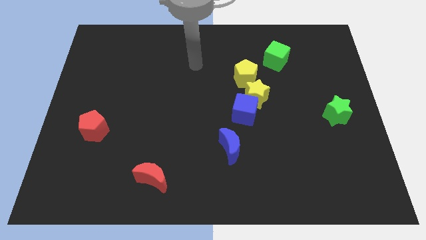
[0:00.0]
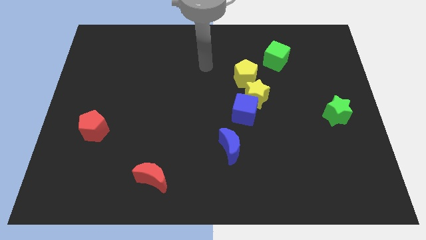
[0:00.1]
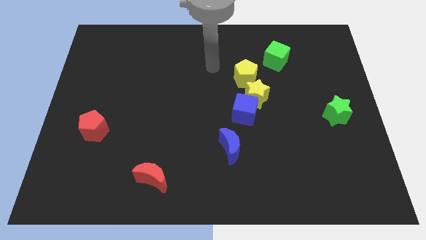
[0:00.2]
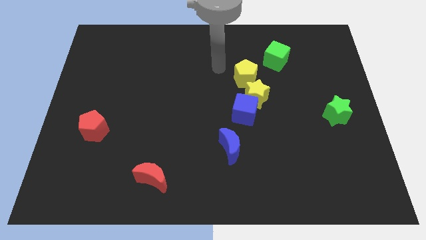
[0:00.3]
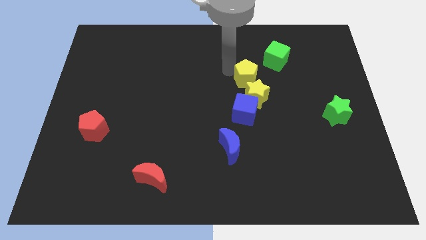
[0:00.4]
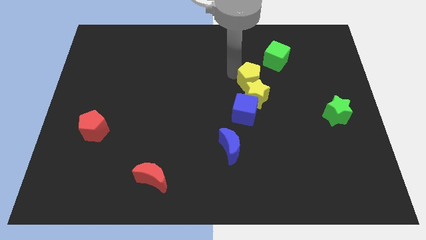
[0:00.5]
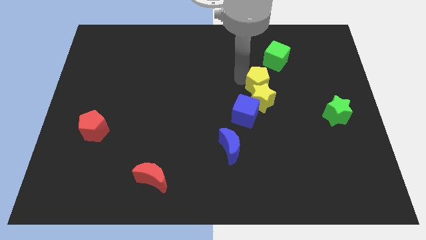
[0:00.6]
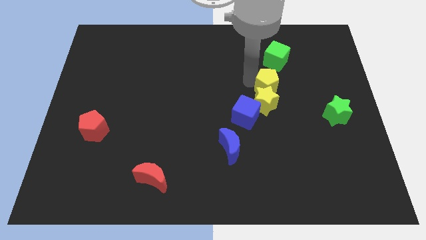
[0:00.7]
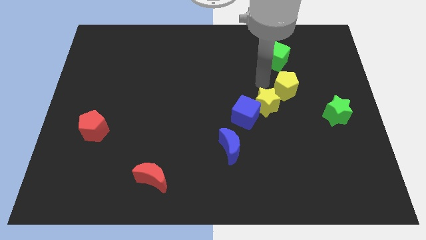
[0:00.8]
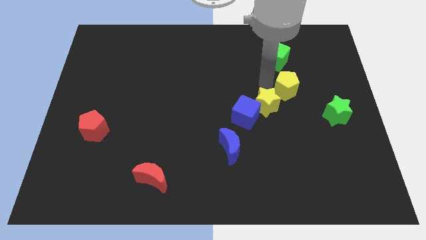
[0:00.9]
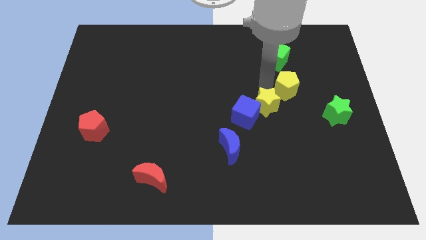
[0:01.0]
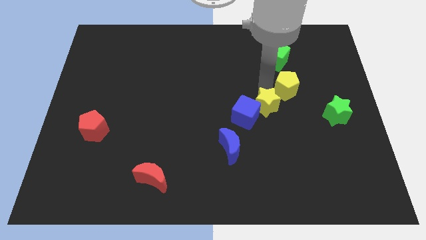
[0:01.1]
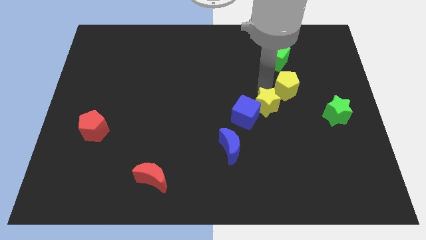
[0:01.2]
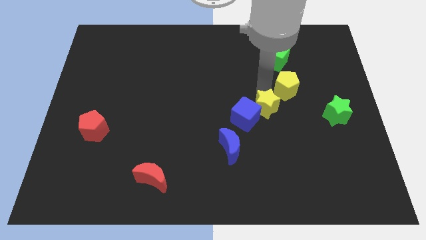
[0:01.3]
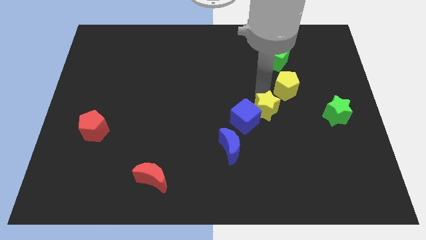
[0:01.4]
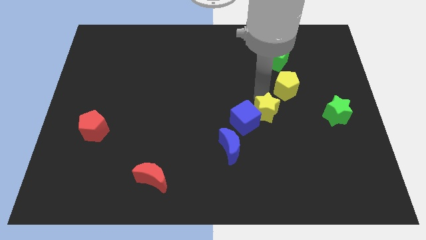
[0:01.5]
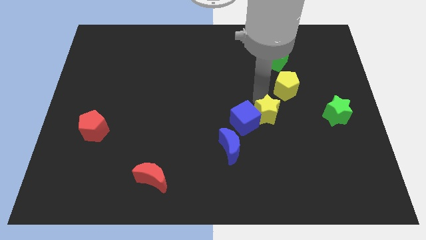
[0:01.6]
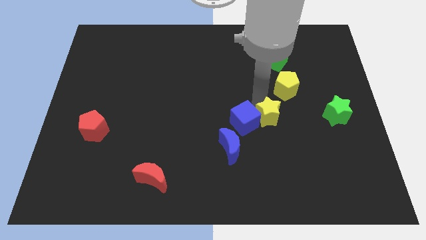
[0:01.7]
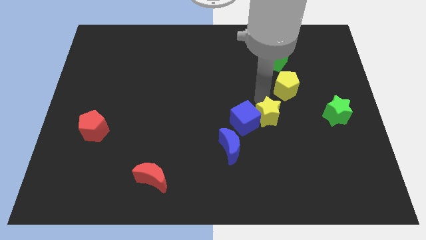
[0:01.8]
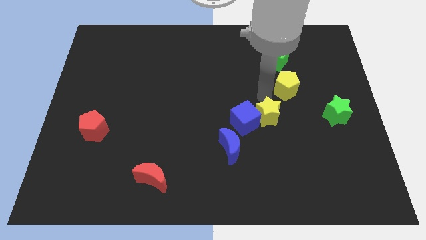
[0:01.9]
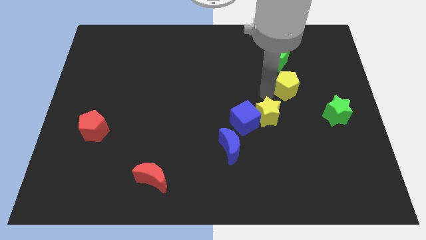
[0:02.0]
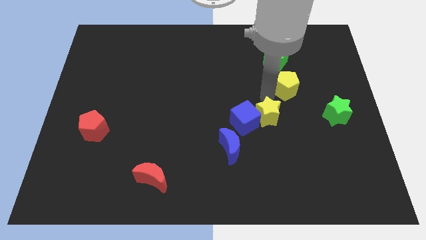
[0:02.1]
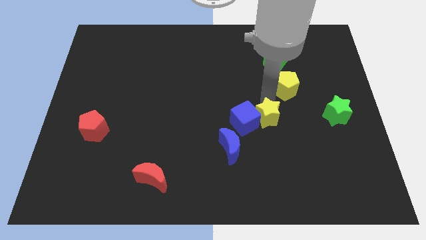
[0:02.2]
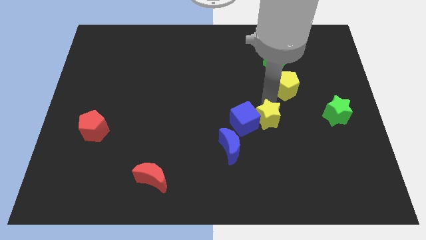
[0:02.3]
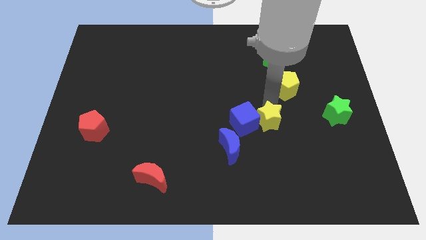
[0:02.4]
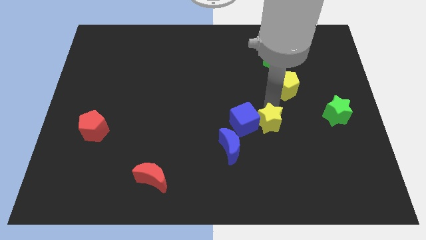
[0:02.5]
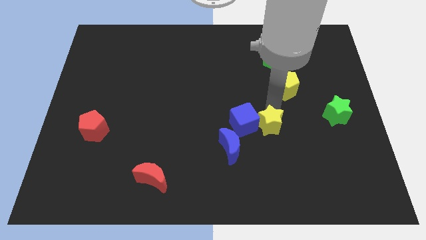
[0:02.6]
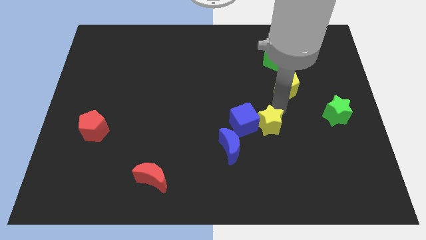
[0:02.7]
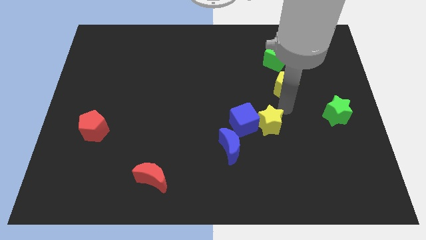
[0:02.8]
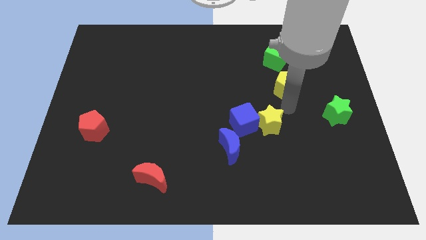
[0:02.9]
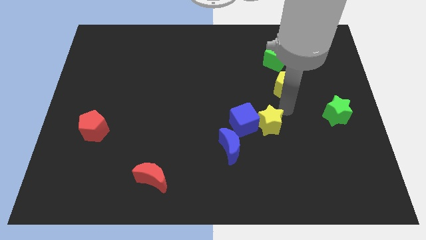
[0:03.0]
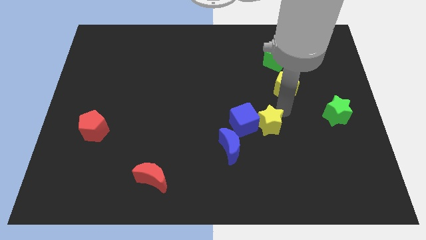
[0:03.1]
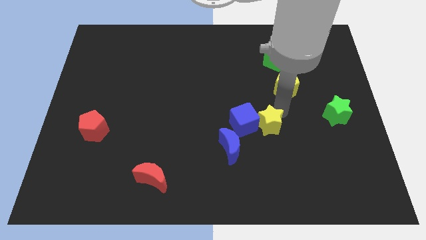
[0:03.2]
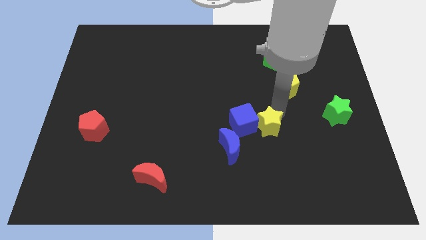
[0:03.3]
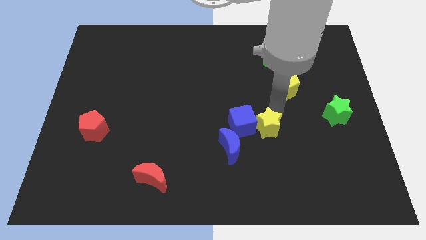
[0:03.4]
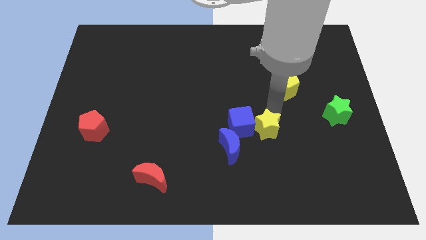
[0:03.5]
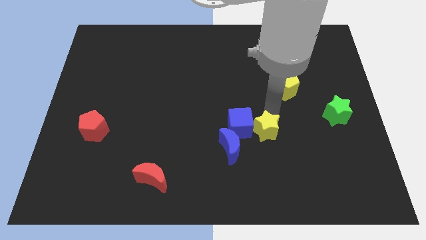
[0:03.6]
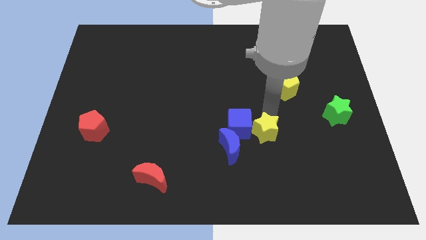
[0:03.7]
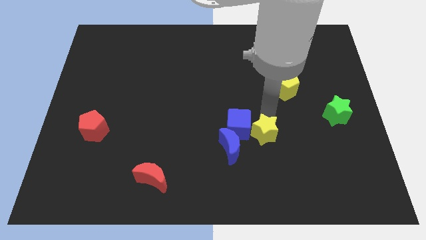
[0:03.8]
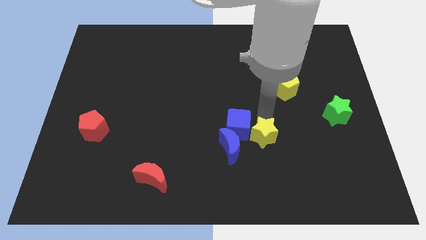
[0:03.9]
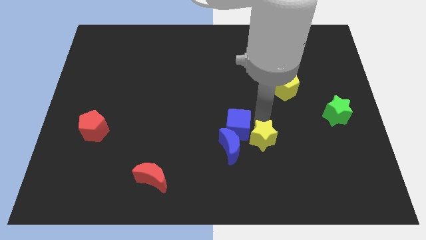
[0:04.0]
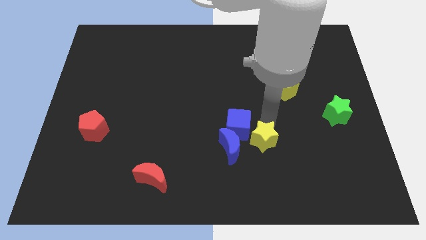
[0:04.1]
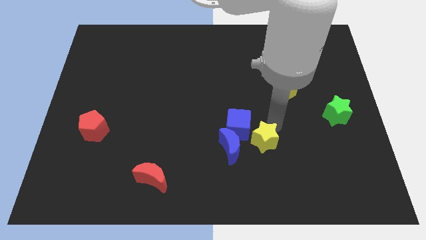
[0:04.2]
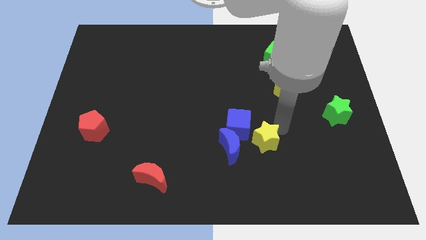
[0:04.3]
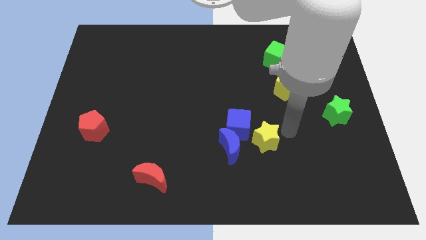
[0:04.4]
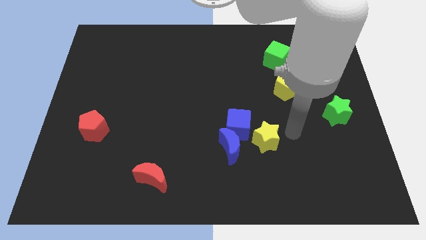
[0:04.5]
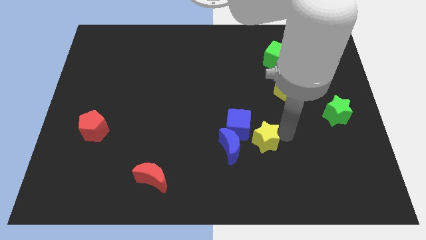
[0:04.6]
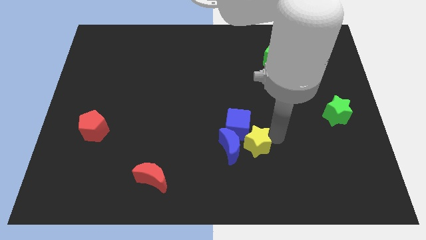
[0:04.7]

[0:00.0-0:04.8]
push the yellow star next to the blue moon

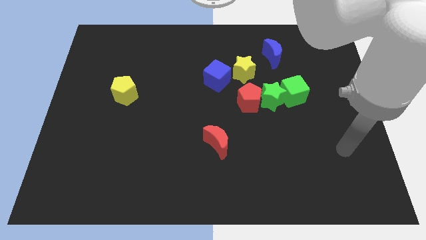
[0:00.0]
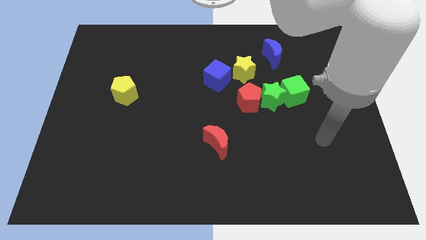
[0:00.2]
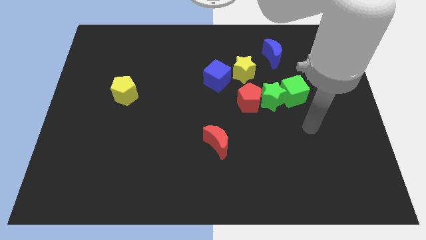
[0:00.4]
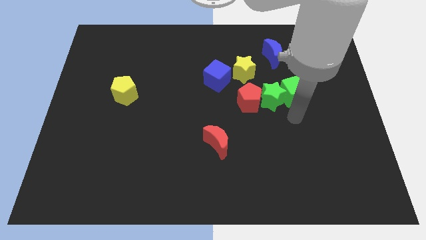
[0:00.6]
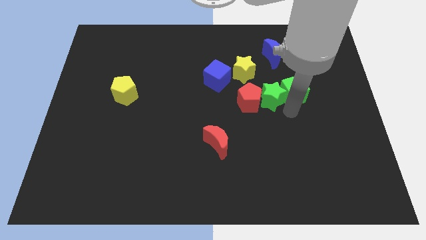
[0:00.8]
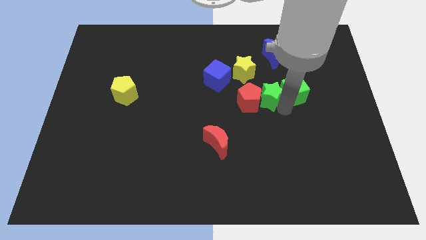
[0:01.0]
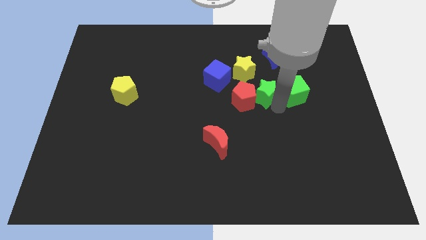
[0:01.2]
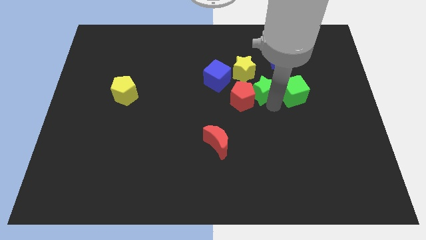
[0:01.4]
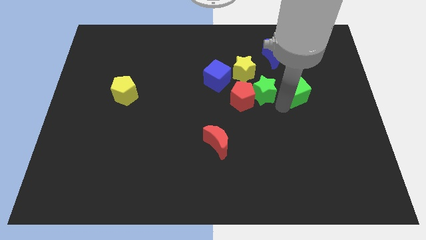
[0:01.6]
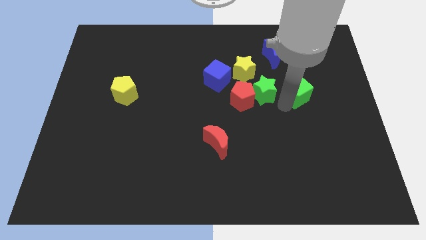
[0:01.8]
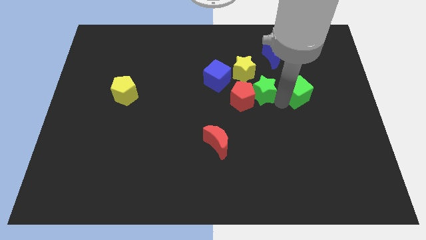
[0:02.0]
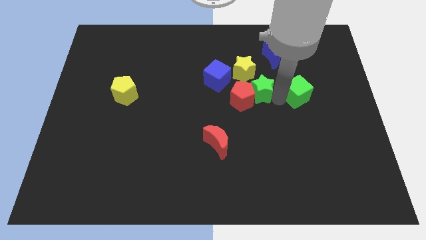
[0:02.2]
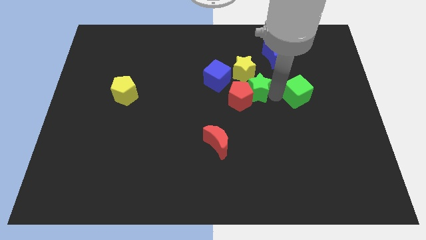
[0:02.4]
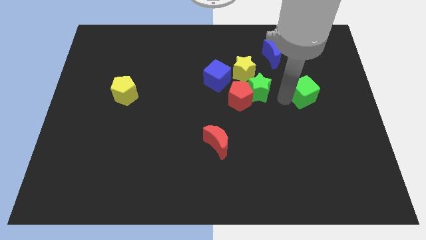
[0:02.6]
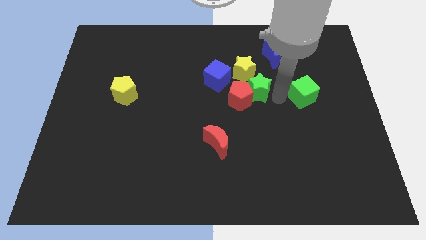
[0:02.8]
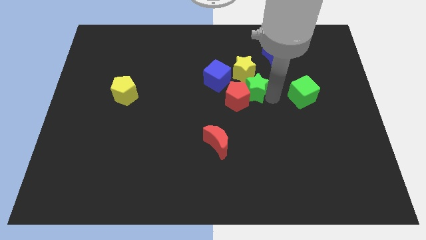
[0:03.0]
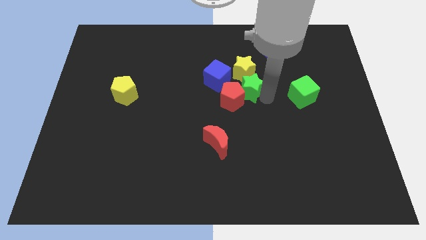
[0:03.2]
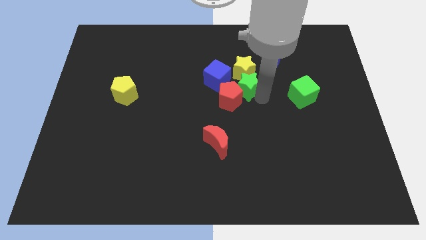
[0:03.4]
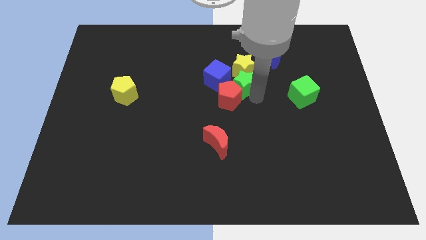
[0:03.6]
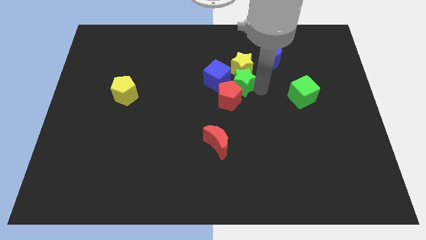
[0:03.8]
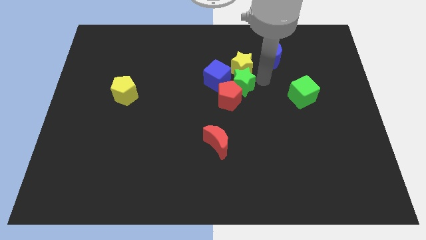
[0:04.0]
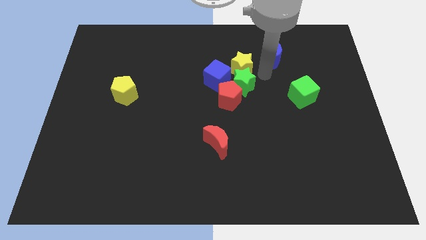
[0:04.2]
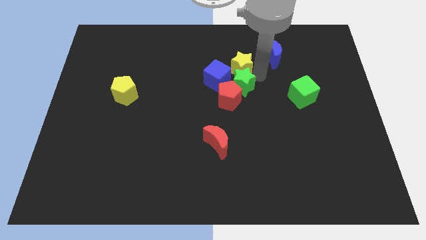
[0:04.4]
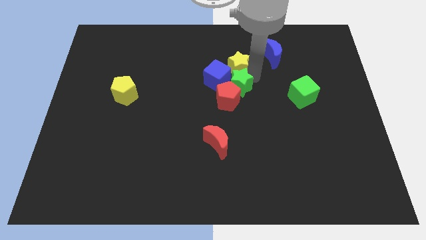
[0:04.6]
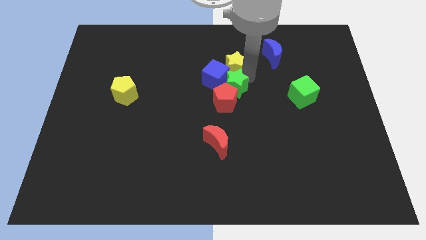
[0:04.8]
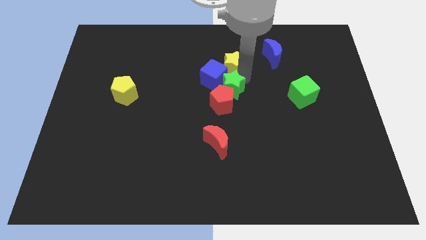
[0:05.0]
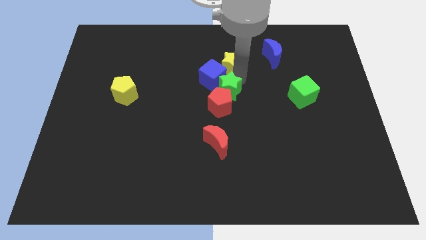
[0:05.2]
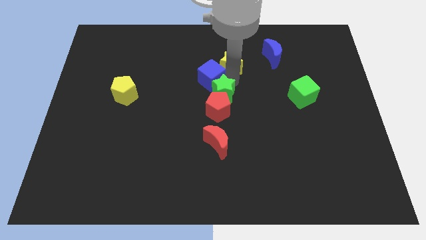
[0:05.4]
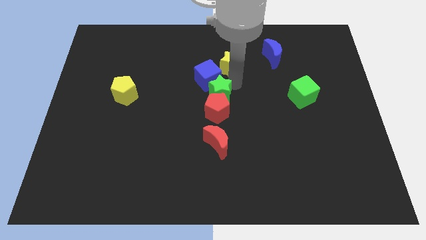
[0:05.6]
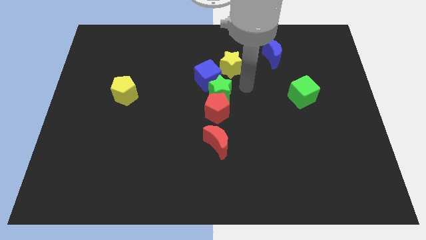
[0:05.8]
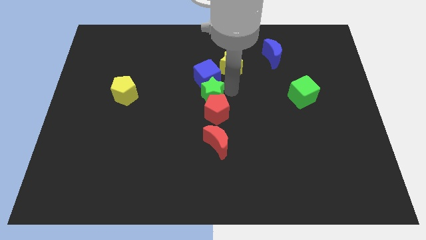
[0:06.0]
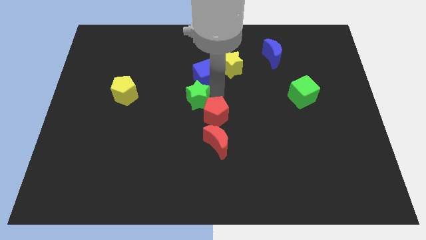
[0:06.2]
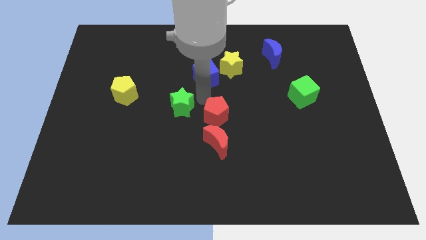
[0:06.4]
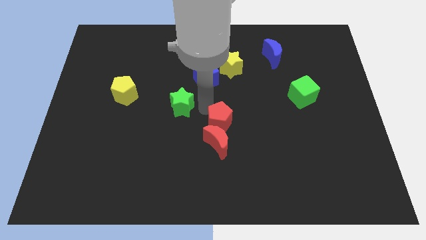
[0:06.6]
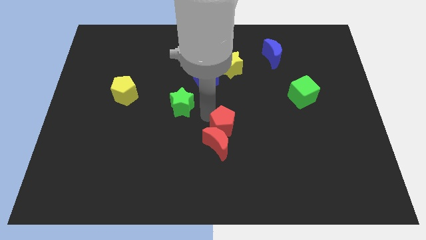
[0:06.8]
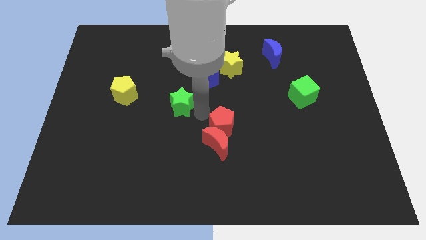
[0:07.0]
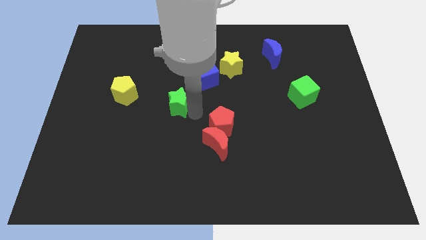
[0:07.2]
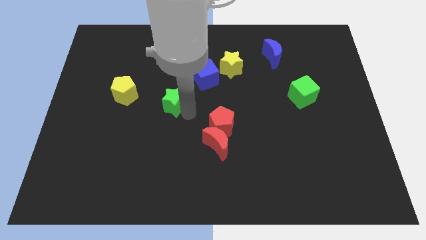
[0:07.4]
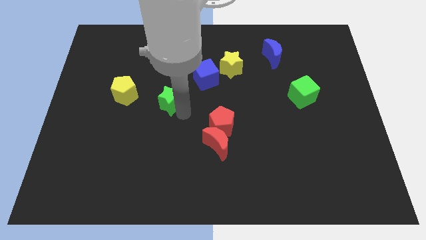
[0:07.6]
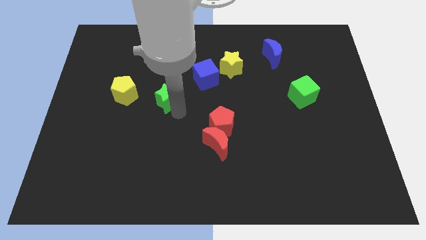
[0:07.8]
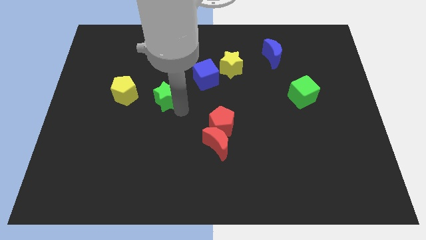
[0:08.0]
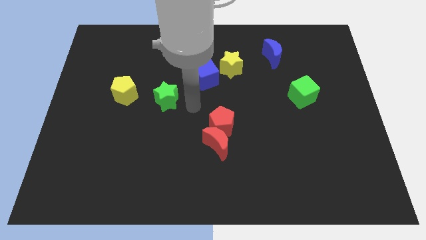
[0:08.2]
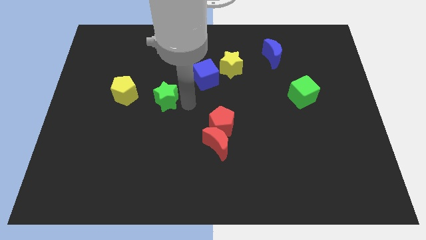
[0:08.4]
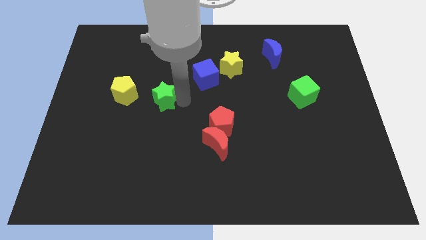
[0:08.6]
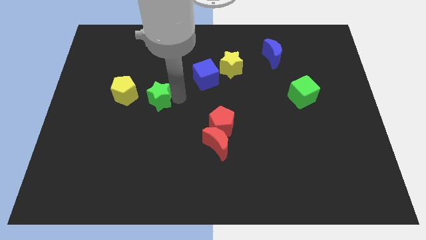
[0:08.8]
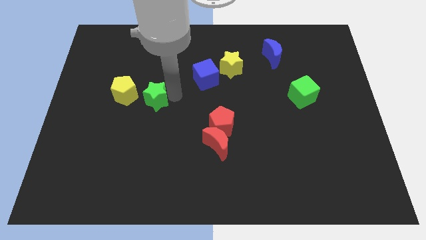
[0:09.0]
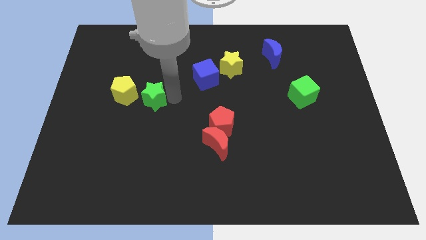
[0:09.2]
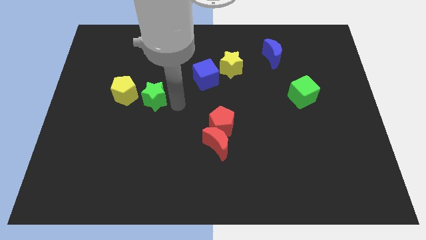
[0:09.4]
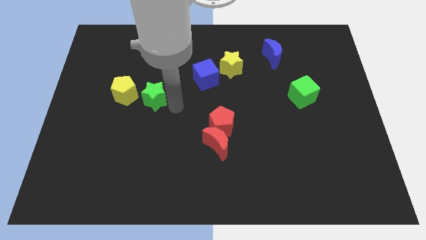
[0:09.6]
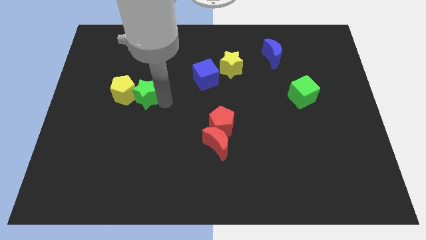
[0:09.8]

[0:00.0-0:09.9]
push the green star towards the yellow pentagon
